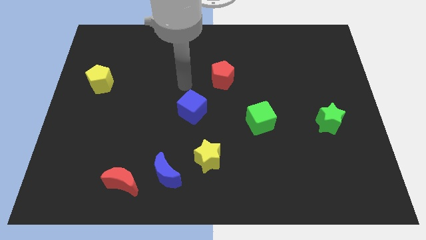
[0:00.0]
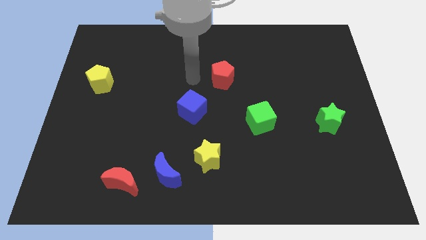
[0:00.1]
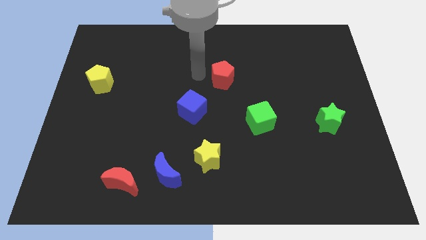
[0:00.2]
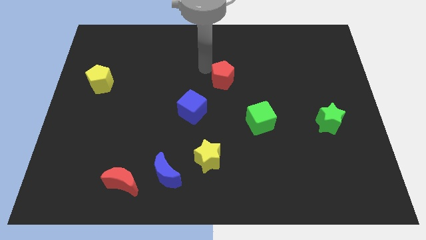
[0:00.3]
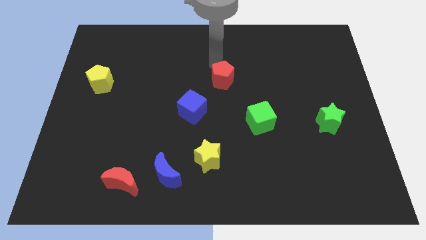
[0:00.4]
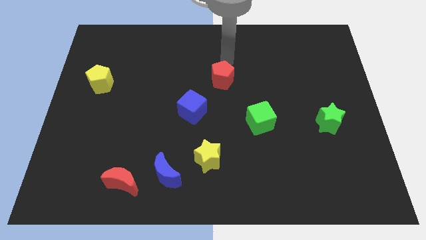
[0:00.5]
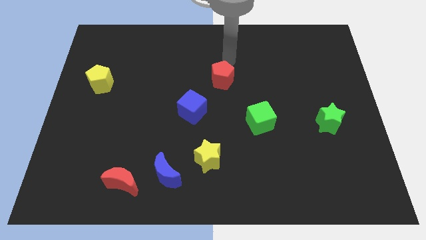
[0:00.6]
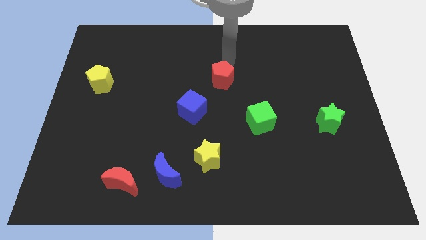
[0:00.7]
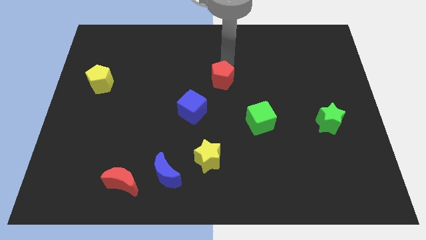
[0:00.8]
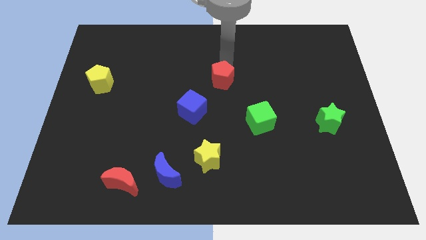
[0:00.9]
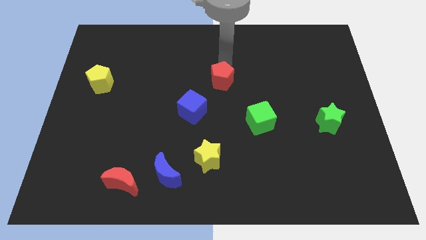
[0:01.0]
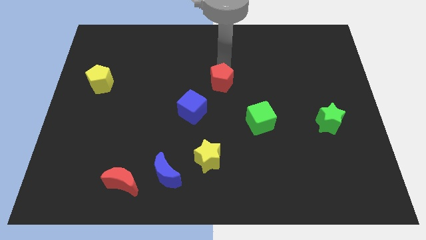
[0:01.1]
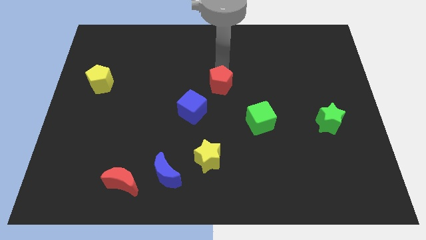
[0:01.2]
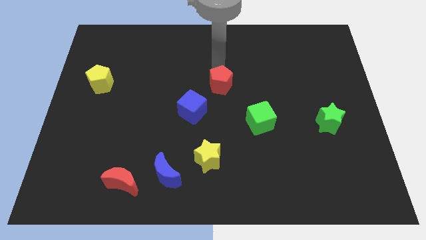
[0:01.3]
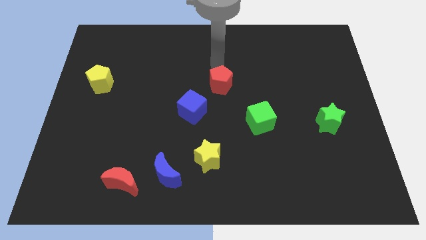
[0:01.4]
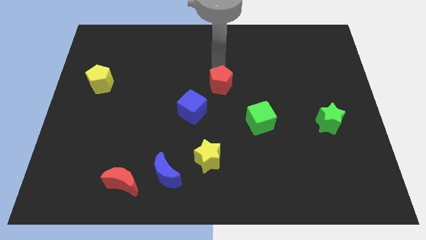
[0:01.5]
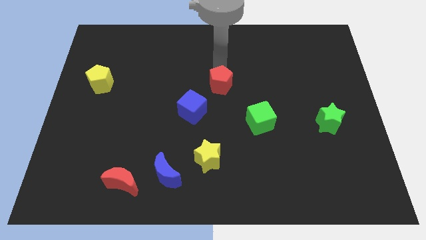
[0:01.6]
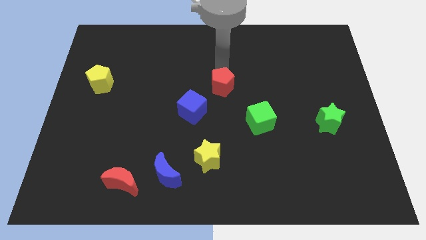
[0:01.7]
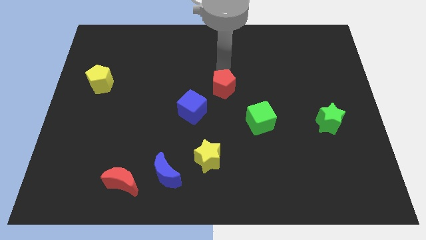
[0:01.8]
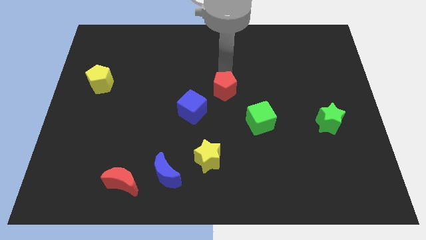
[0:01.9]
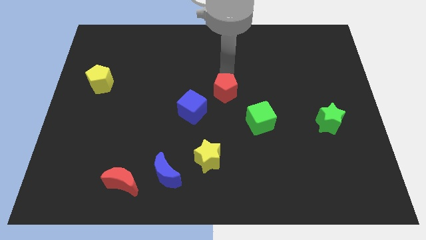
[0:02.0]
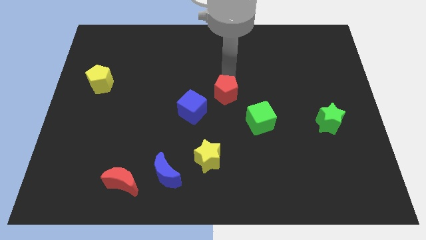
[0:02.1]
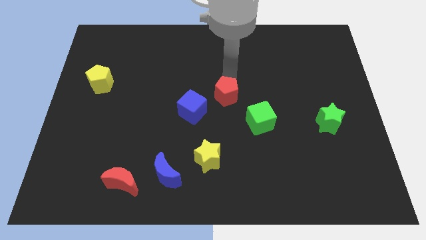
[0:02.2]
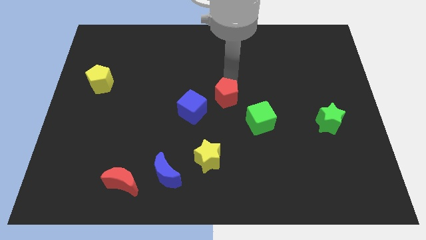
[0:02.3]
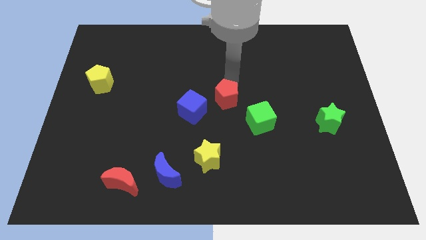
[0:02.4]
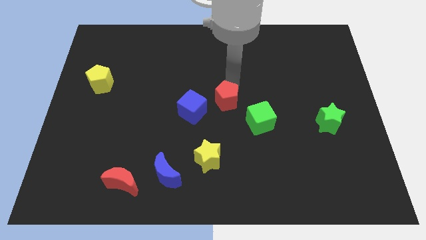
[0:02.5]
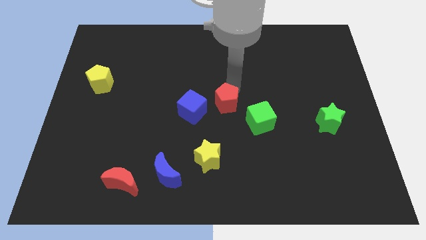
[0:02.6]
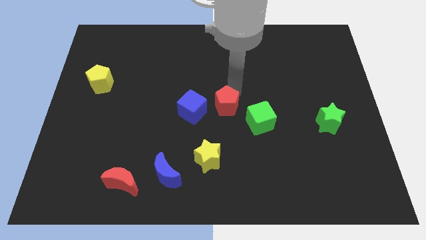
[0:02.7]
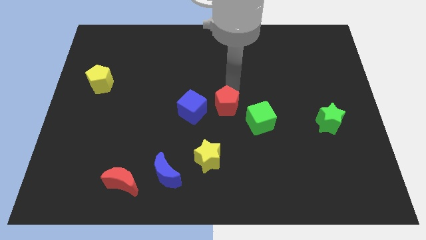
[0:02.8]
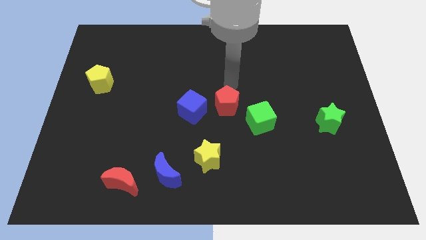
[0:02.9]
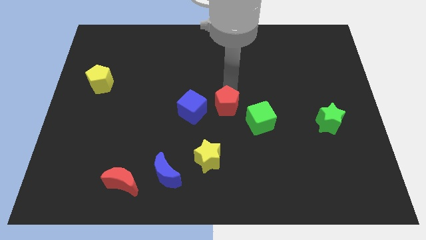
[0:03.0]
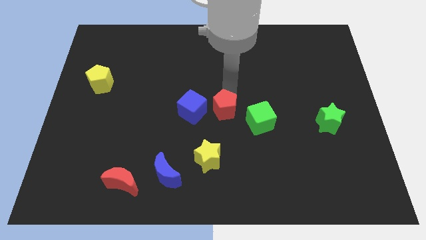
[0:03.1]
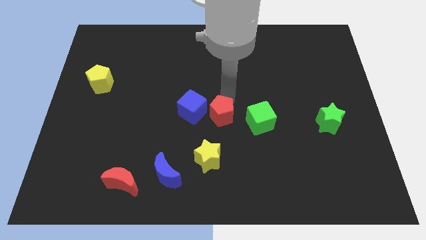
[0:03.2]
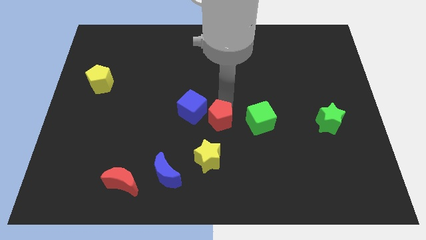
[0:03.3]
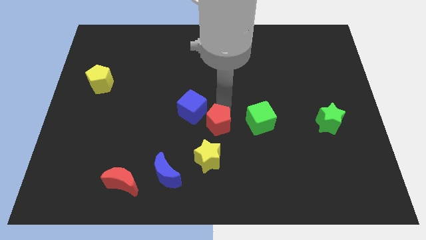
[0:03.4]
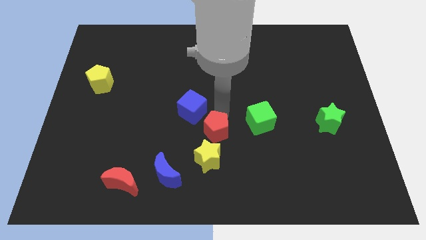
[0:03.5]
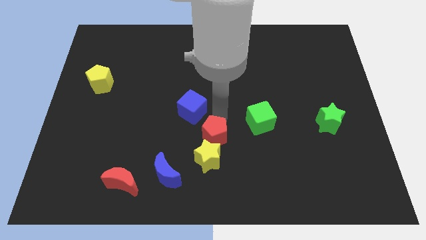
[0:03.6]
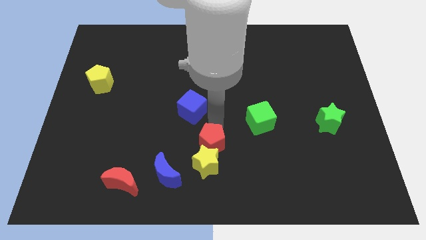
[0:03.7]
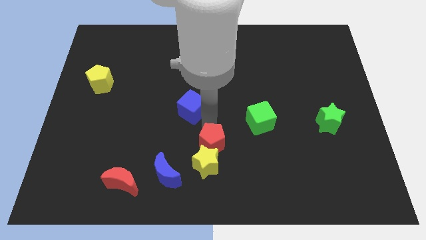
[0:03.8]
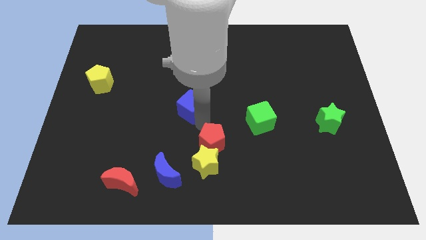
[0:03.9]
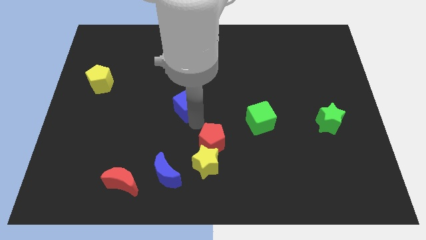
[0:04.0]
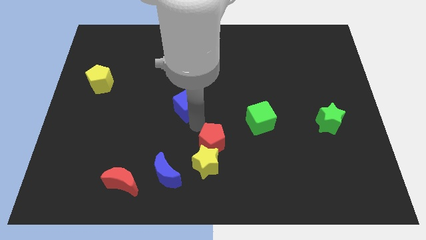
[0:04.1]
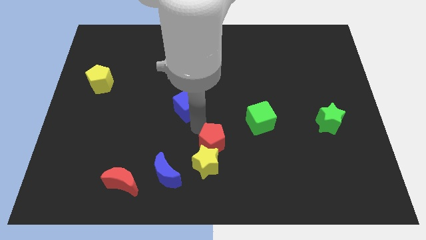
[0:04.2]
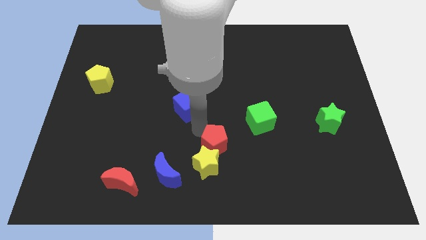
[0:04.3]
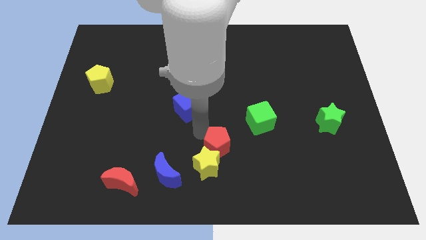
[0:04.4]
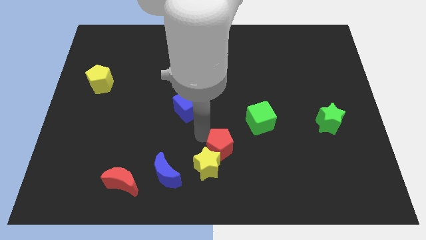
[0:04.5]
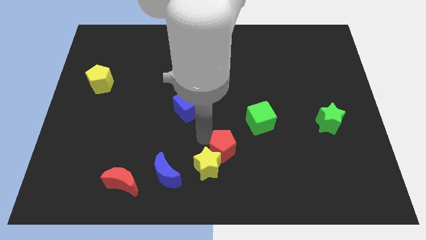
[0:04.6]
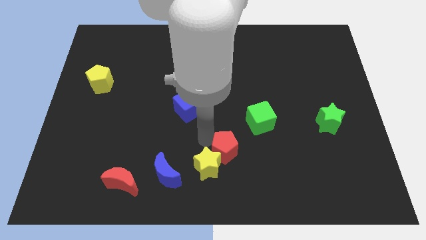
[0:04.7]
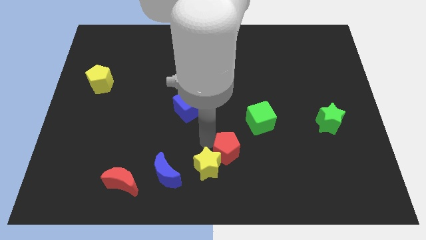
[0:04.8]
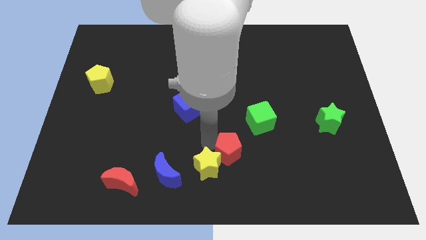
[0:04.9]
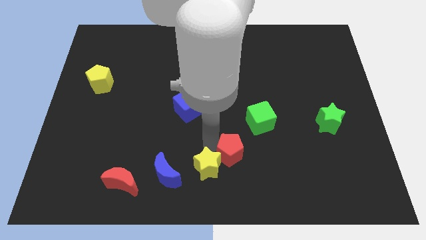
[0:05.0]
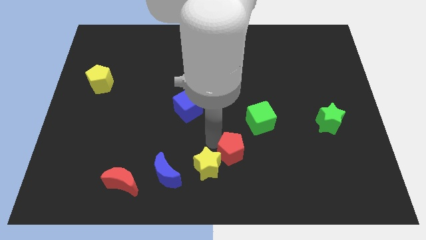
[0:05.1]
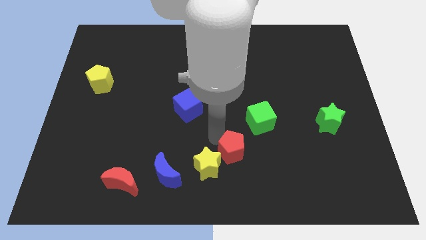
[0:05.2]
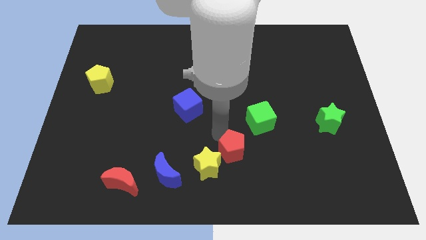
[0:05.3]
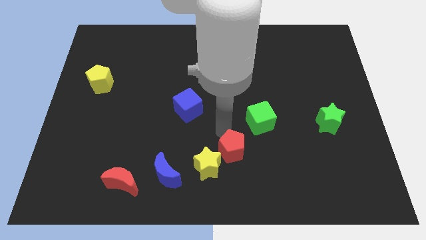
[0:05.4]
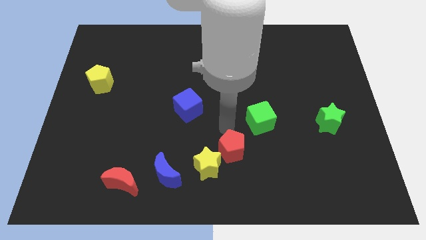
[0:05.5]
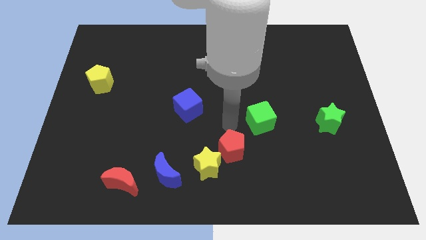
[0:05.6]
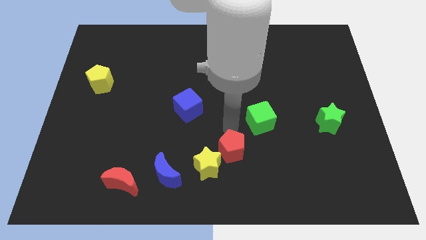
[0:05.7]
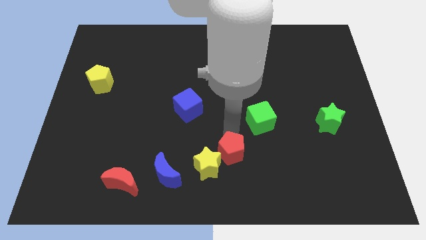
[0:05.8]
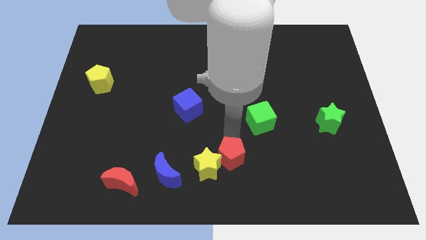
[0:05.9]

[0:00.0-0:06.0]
move the red pentagon to the bottom side
